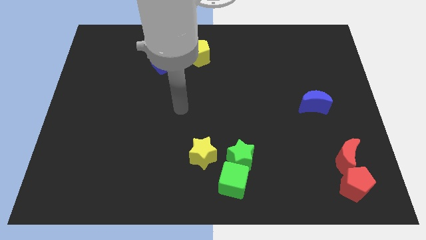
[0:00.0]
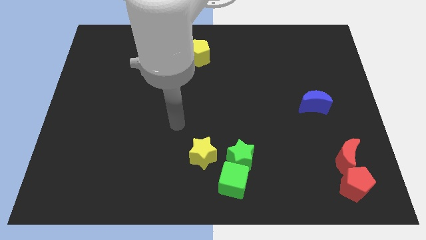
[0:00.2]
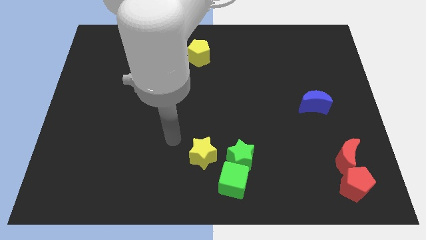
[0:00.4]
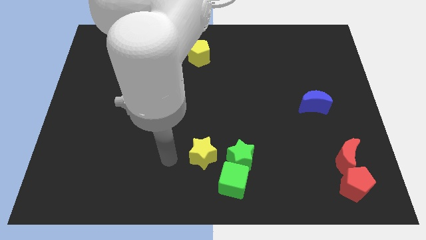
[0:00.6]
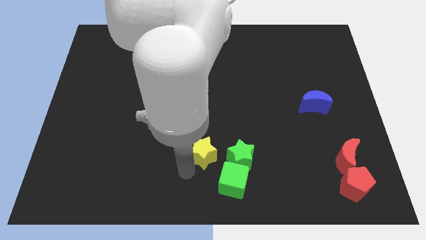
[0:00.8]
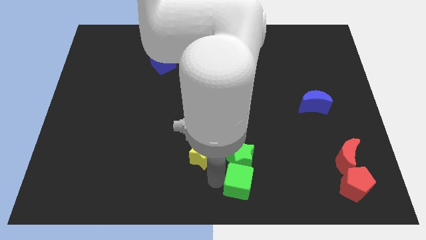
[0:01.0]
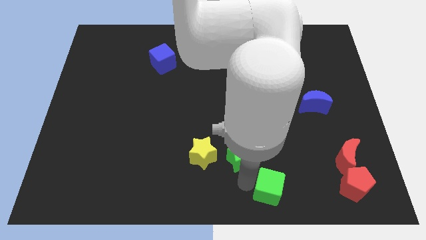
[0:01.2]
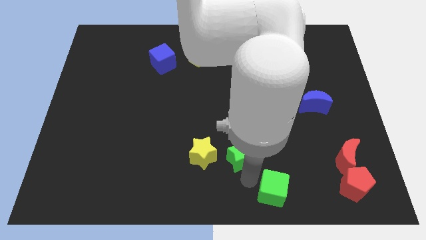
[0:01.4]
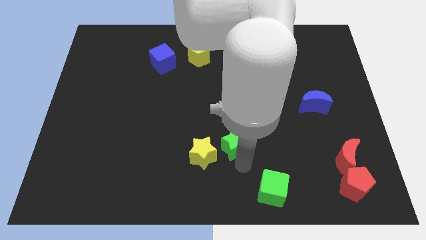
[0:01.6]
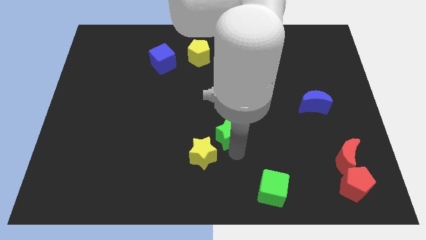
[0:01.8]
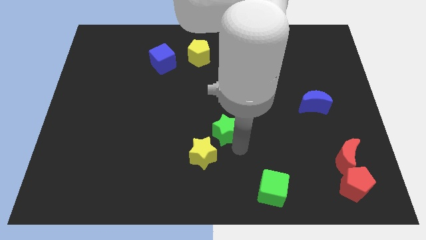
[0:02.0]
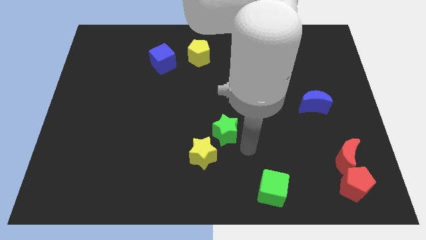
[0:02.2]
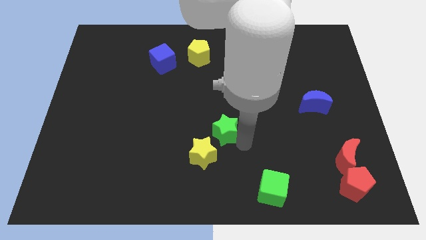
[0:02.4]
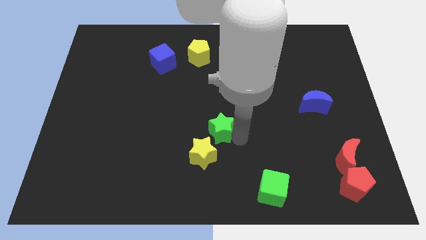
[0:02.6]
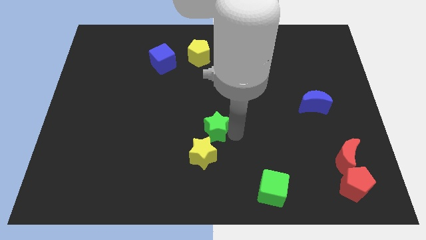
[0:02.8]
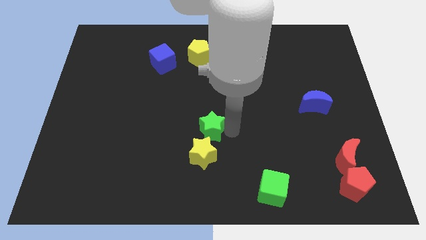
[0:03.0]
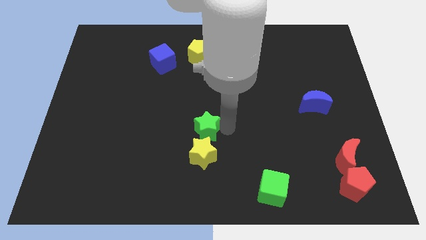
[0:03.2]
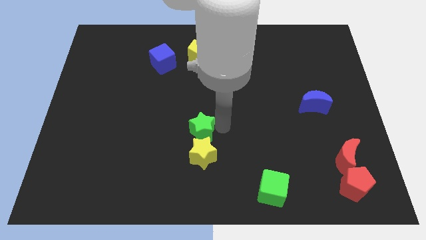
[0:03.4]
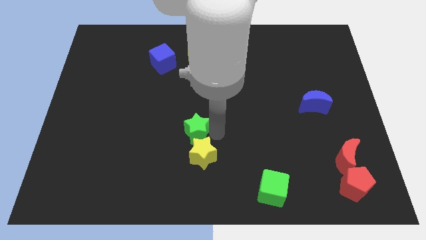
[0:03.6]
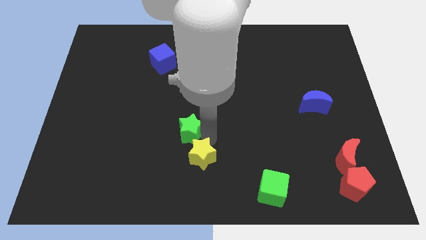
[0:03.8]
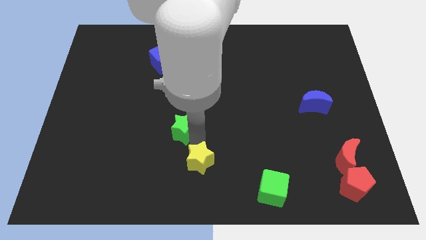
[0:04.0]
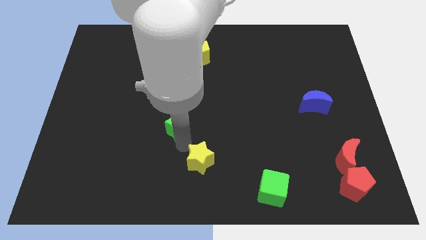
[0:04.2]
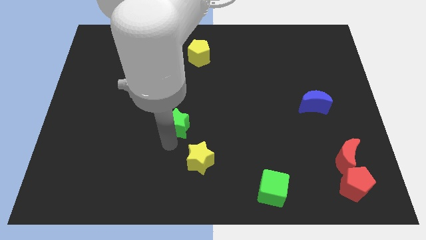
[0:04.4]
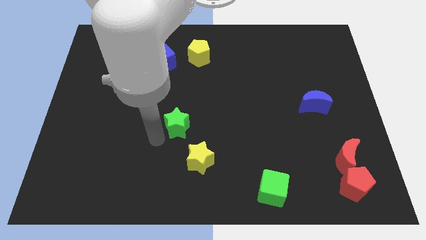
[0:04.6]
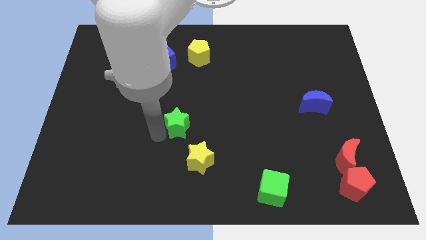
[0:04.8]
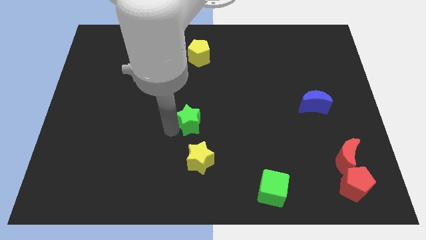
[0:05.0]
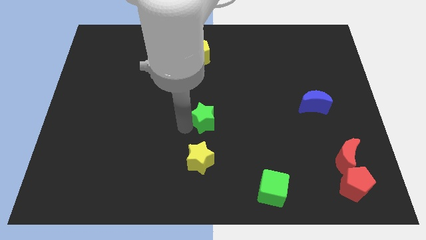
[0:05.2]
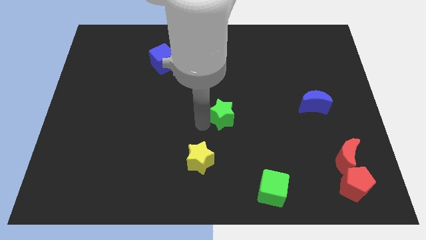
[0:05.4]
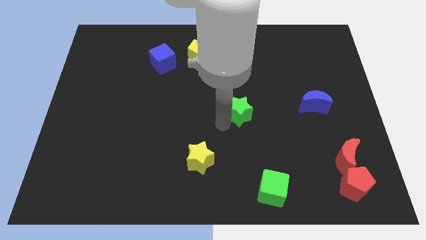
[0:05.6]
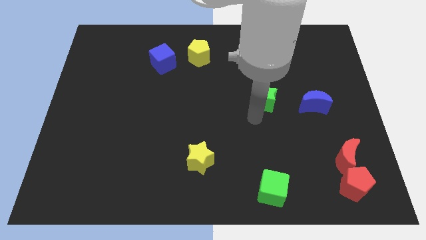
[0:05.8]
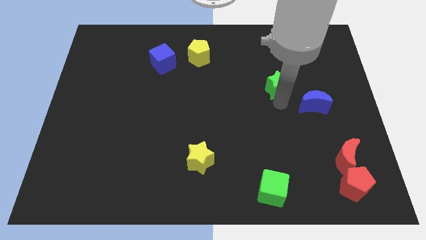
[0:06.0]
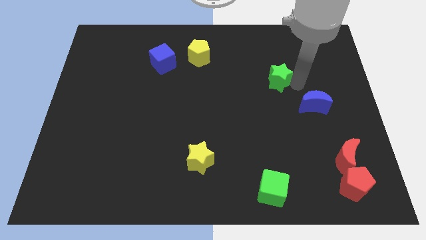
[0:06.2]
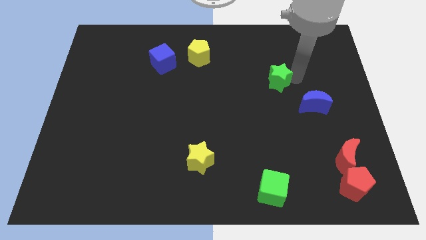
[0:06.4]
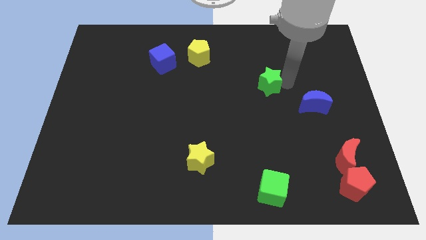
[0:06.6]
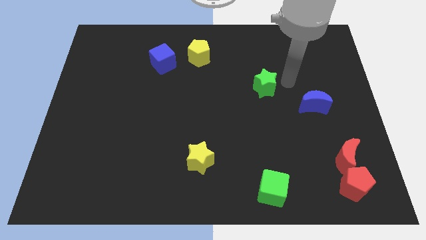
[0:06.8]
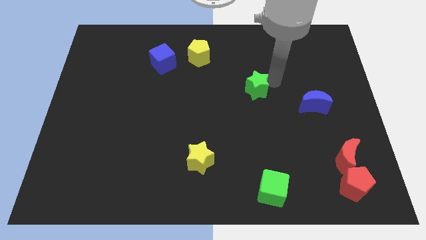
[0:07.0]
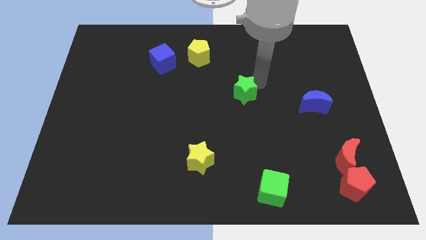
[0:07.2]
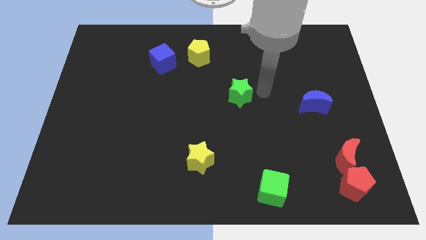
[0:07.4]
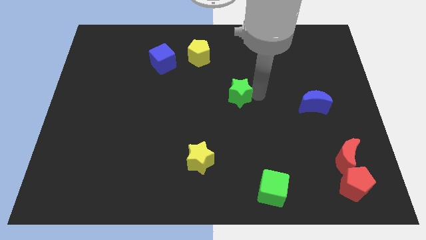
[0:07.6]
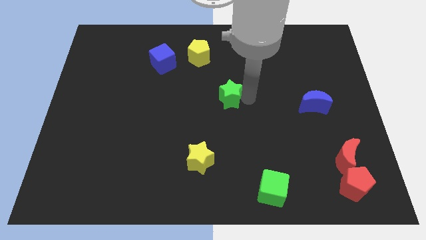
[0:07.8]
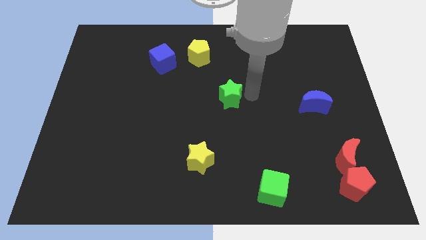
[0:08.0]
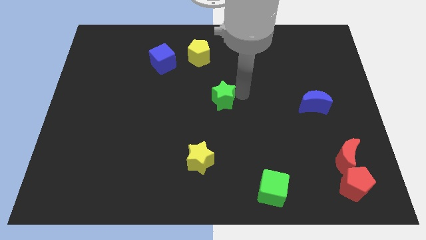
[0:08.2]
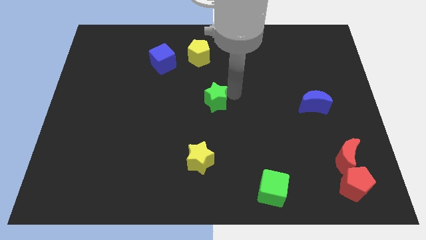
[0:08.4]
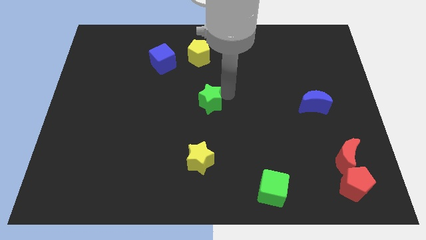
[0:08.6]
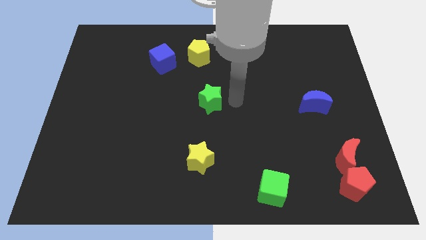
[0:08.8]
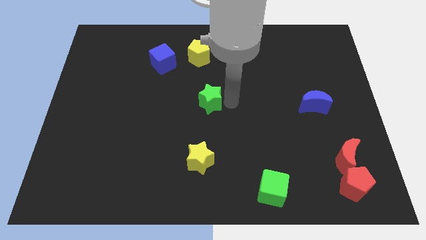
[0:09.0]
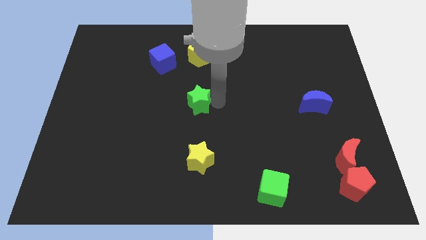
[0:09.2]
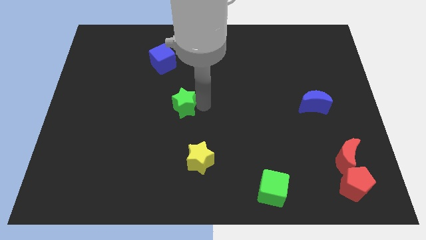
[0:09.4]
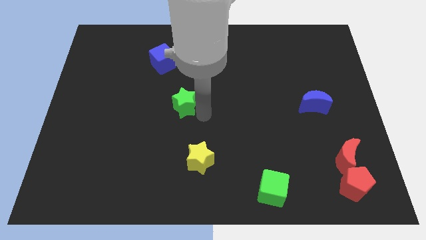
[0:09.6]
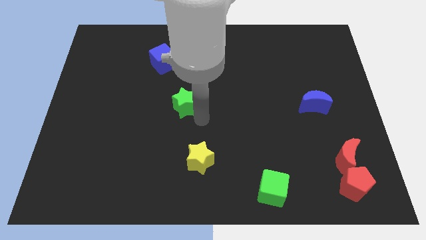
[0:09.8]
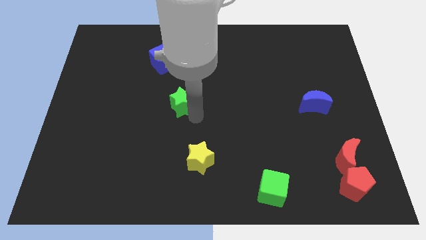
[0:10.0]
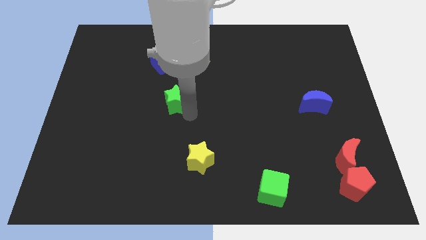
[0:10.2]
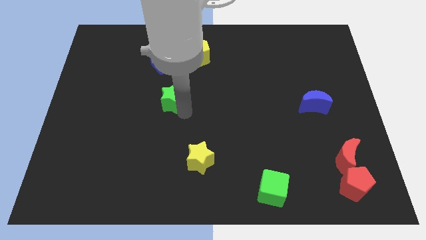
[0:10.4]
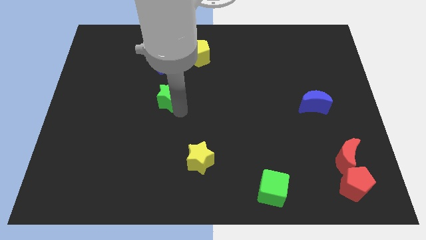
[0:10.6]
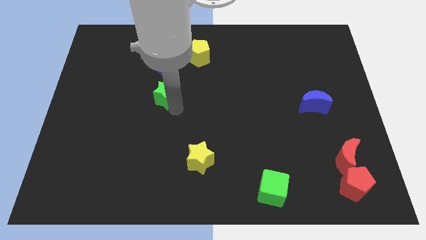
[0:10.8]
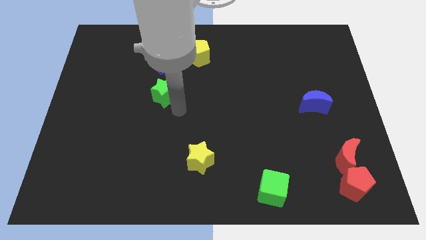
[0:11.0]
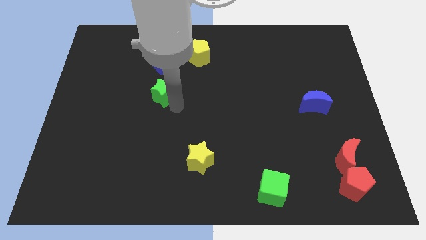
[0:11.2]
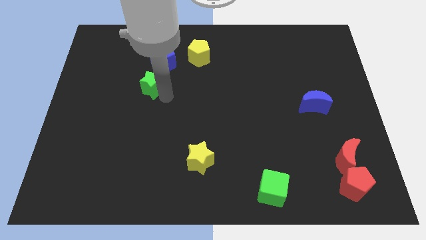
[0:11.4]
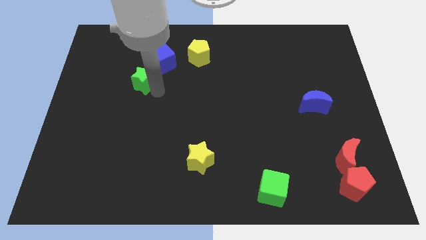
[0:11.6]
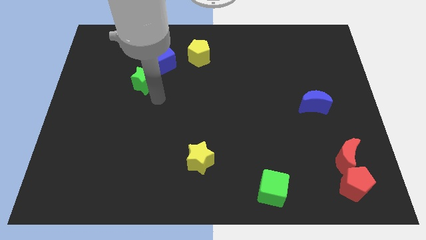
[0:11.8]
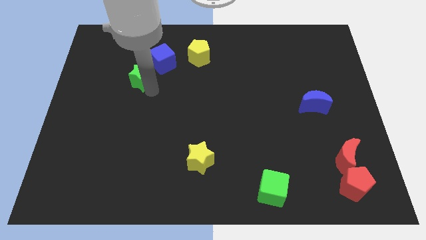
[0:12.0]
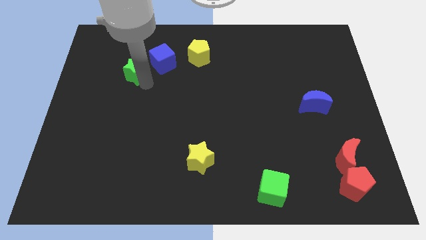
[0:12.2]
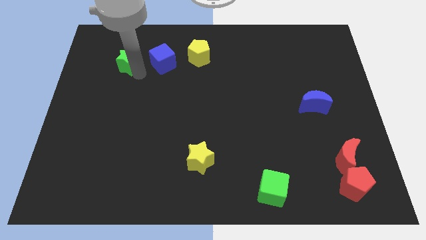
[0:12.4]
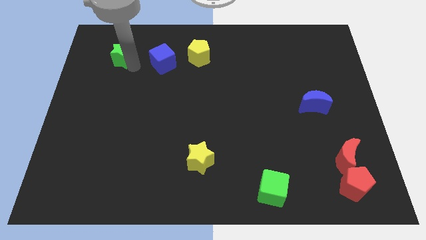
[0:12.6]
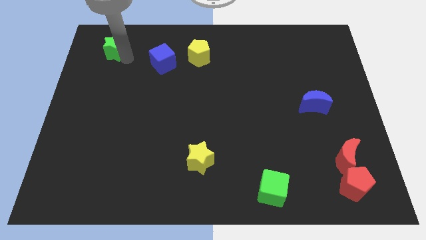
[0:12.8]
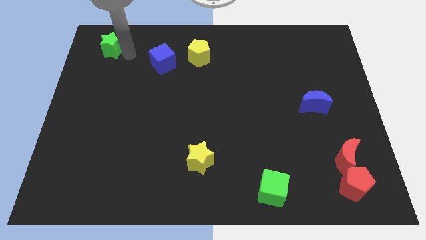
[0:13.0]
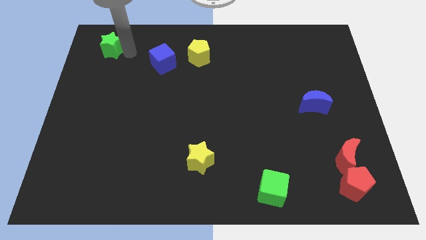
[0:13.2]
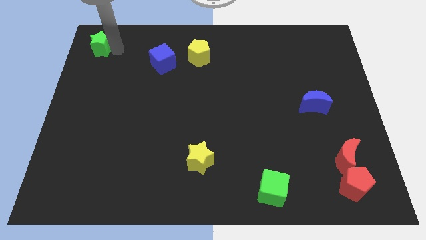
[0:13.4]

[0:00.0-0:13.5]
push the green star to the upper left corner
